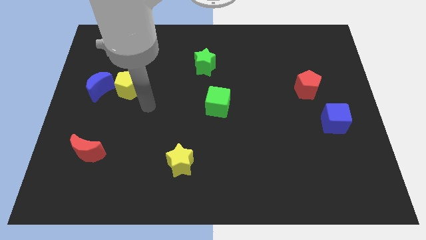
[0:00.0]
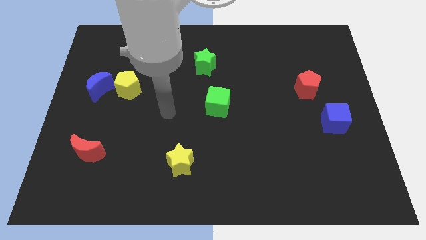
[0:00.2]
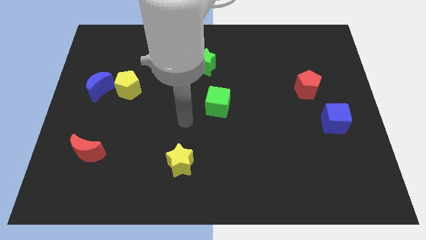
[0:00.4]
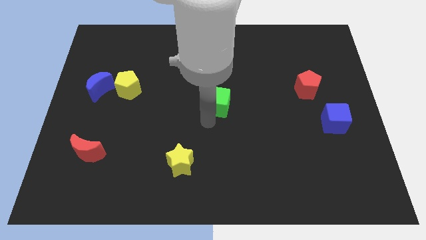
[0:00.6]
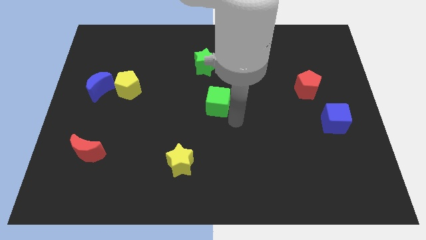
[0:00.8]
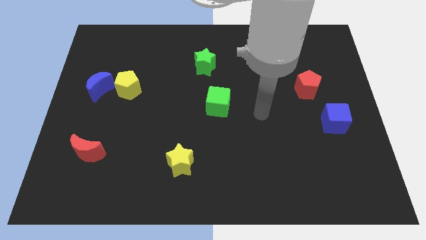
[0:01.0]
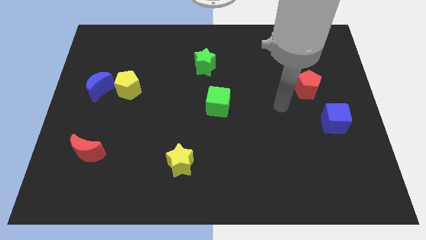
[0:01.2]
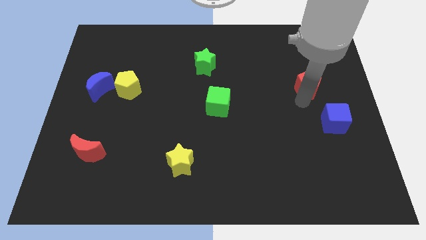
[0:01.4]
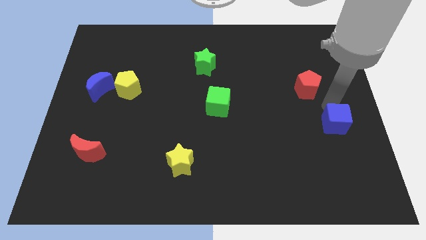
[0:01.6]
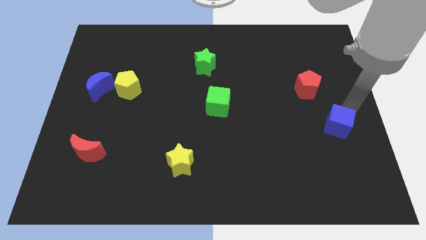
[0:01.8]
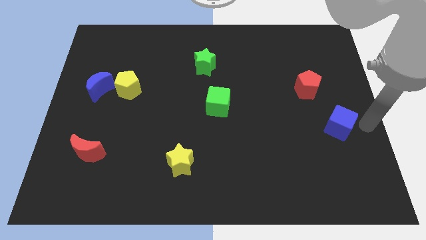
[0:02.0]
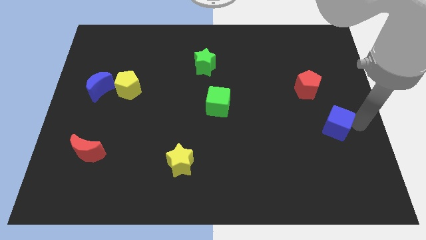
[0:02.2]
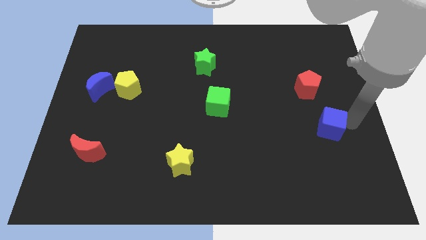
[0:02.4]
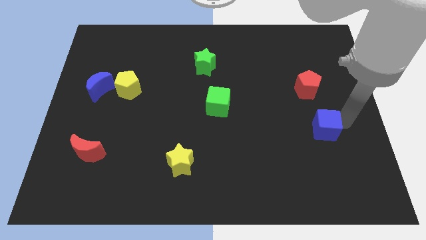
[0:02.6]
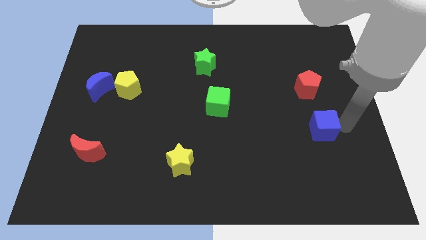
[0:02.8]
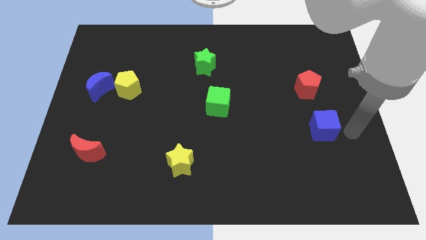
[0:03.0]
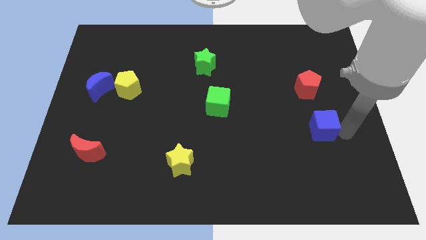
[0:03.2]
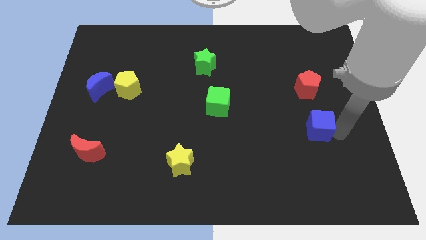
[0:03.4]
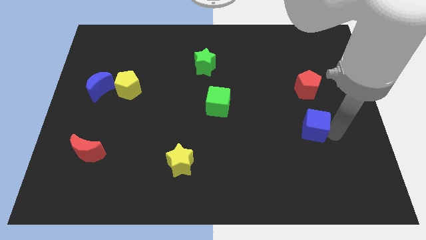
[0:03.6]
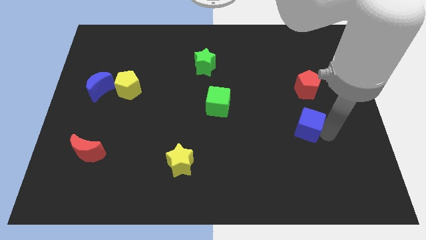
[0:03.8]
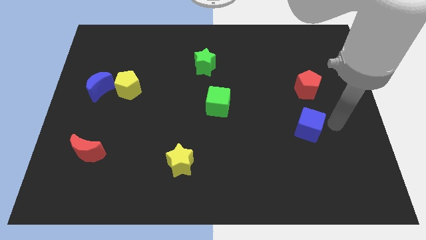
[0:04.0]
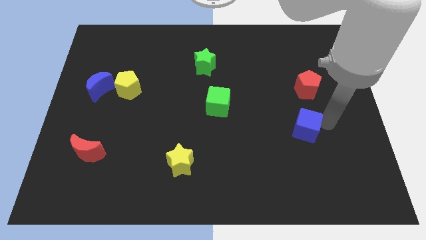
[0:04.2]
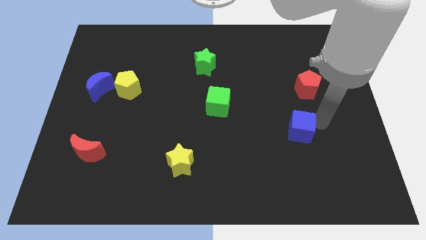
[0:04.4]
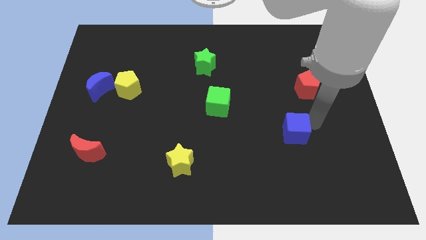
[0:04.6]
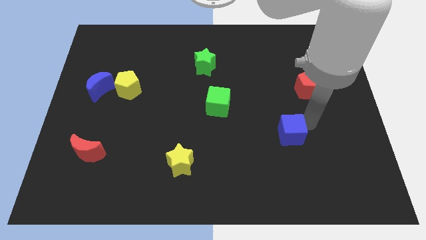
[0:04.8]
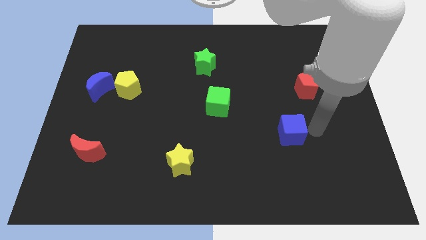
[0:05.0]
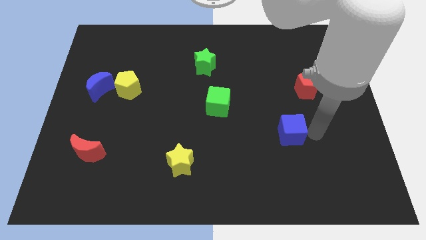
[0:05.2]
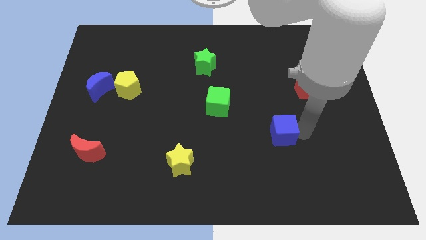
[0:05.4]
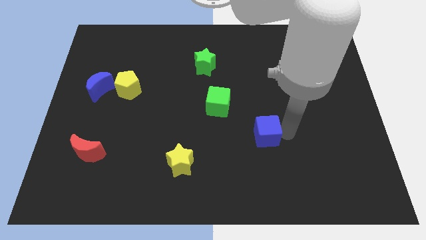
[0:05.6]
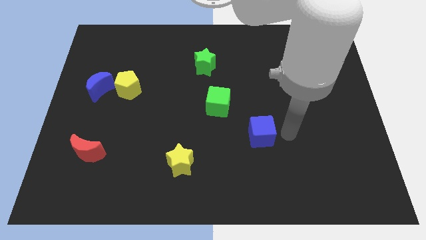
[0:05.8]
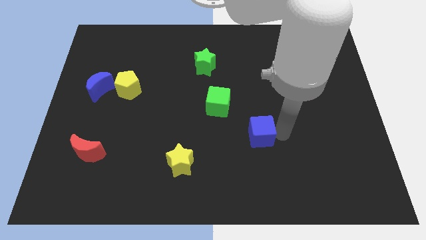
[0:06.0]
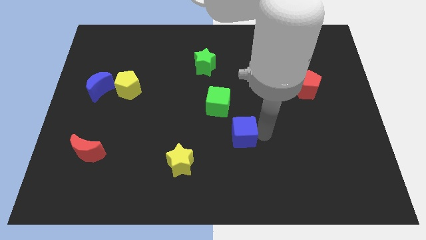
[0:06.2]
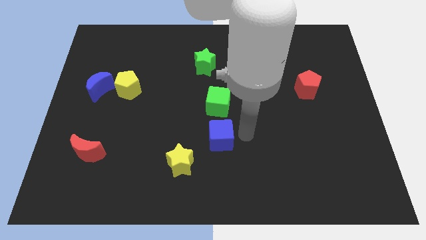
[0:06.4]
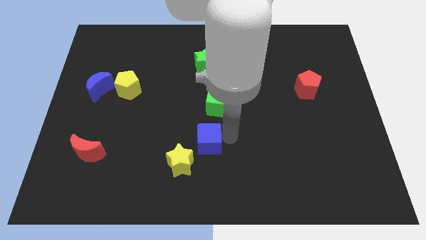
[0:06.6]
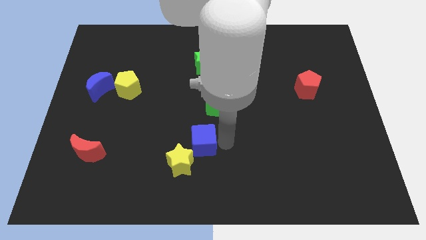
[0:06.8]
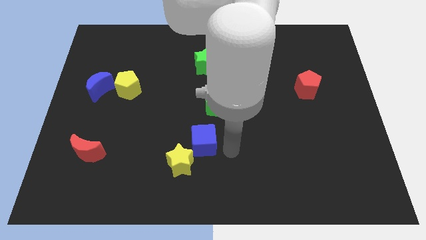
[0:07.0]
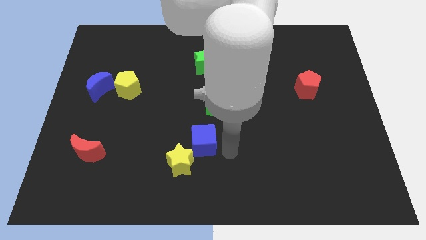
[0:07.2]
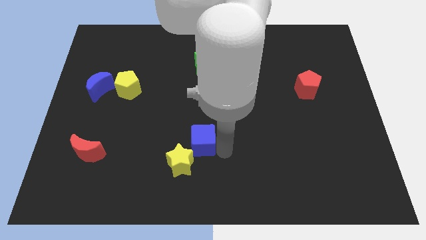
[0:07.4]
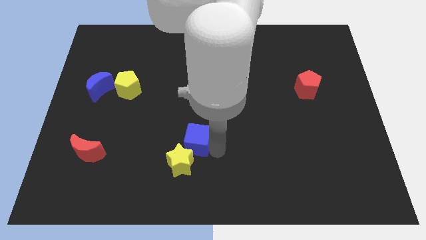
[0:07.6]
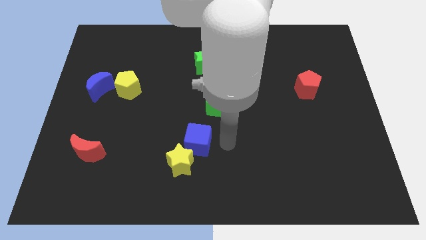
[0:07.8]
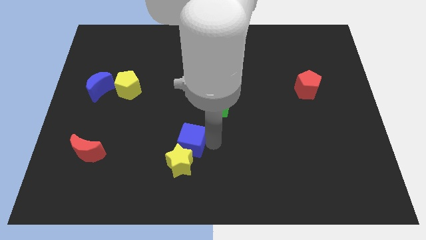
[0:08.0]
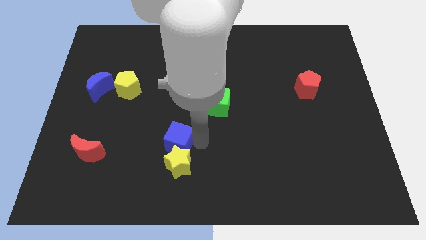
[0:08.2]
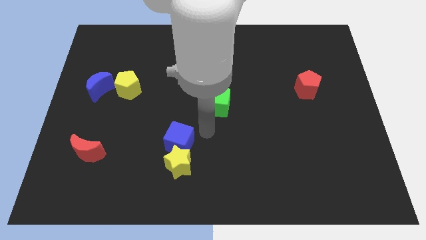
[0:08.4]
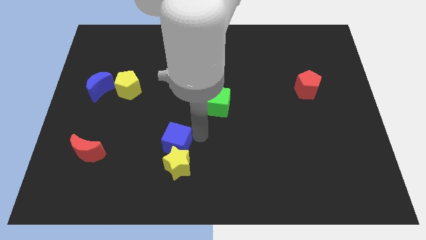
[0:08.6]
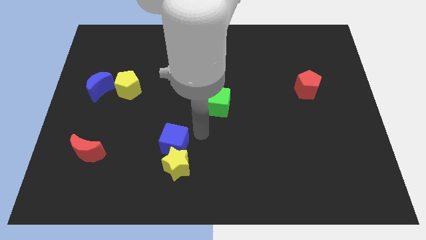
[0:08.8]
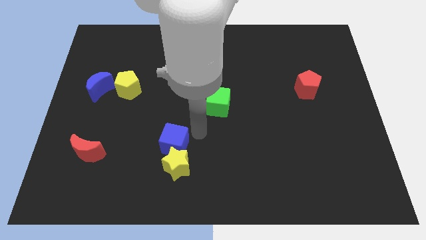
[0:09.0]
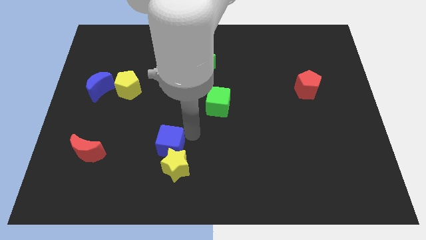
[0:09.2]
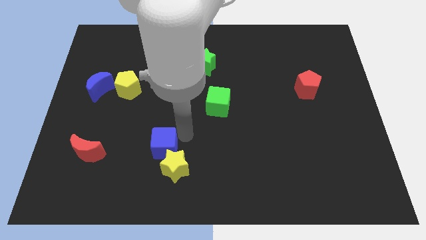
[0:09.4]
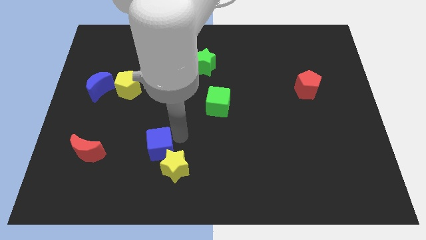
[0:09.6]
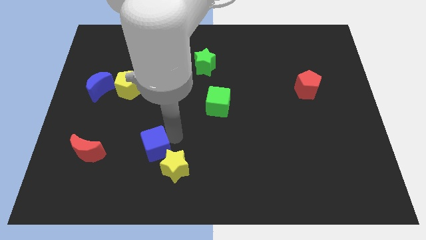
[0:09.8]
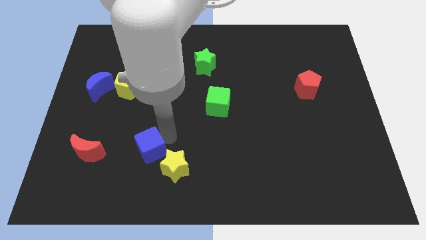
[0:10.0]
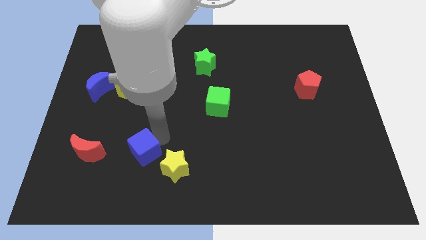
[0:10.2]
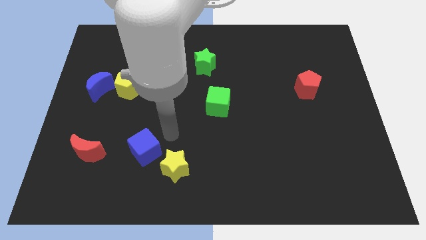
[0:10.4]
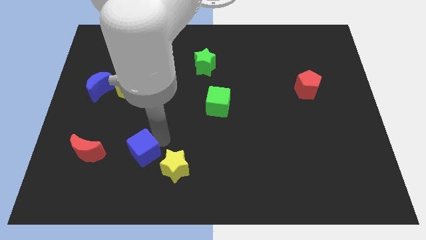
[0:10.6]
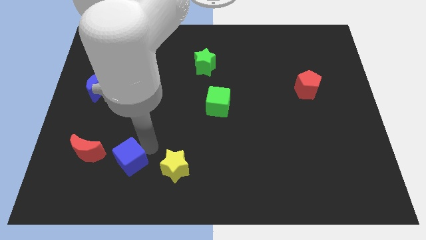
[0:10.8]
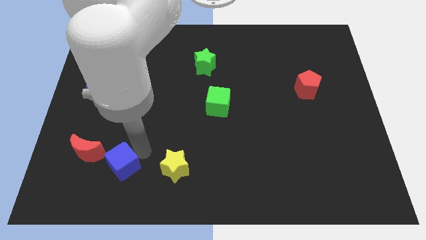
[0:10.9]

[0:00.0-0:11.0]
push the blue cube to the bottom right side of the red moon

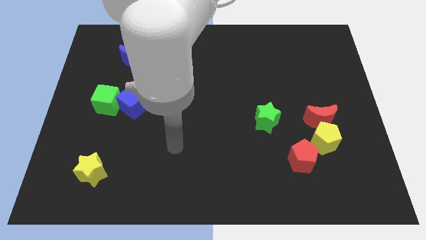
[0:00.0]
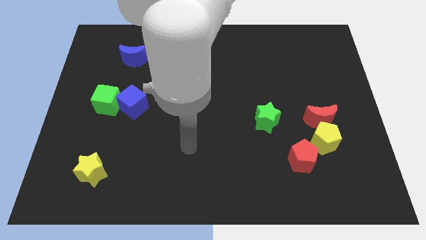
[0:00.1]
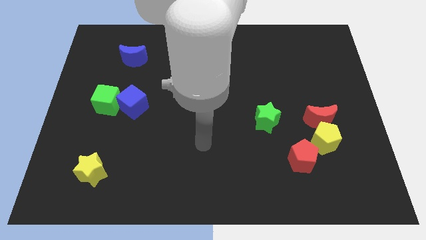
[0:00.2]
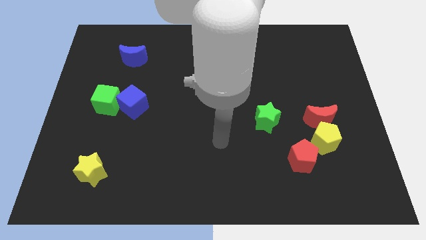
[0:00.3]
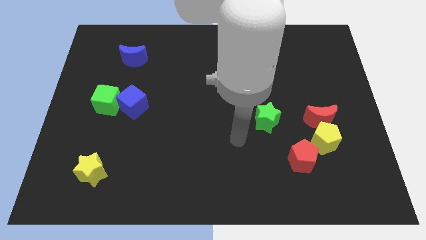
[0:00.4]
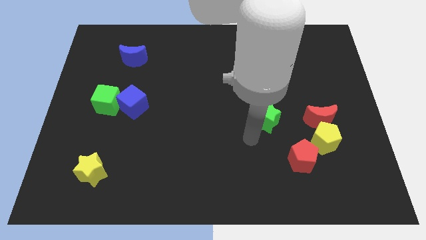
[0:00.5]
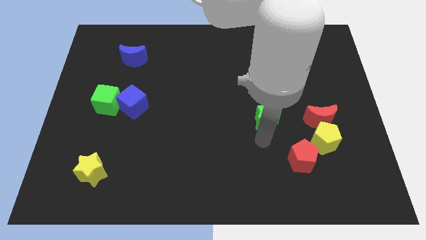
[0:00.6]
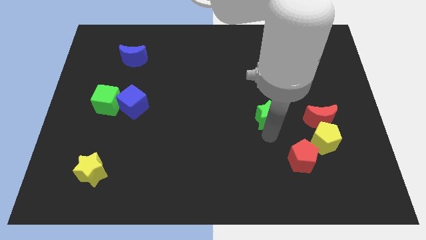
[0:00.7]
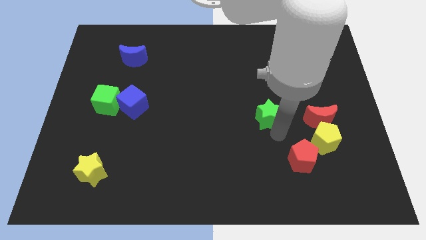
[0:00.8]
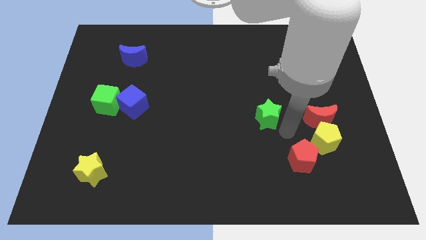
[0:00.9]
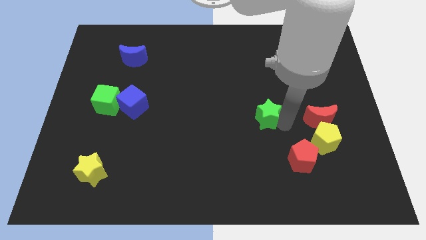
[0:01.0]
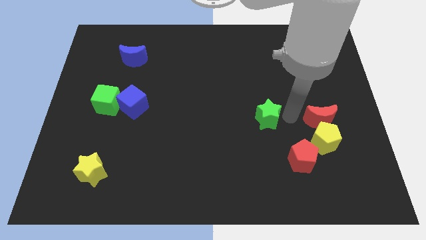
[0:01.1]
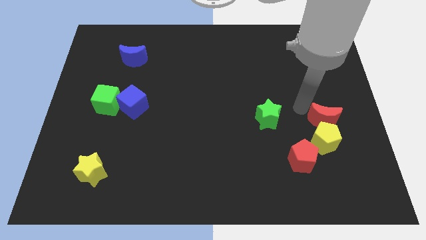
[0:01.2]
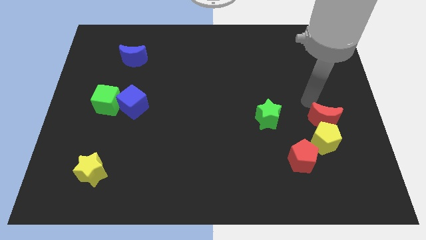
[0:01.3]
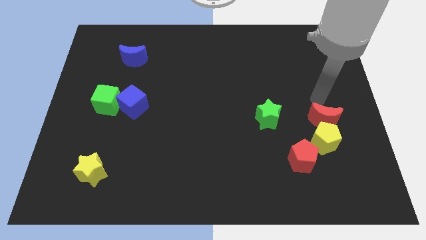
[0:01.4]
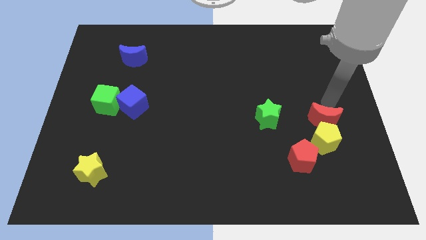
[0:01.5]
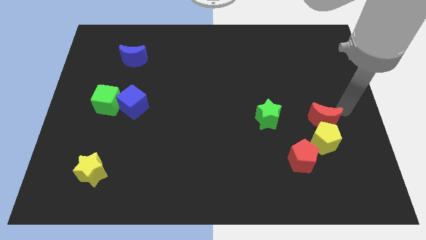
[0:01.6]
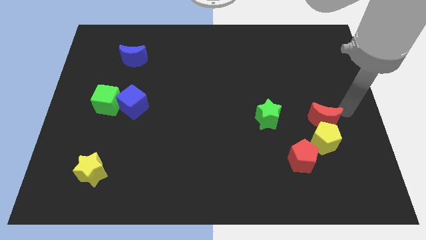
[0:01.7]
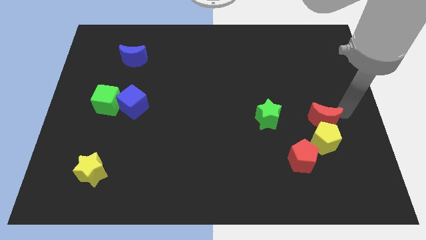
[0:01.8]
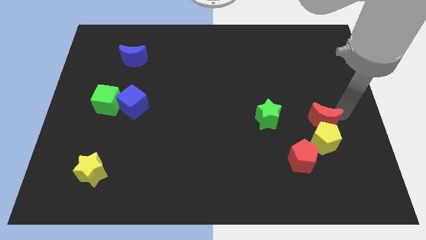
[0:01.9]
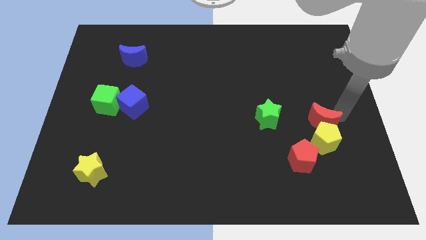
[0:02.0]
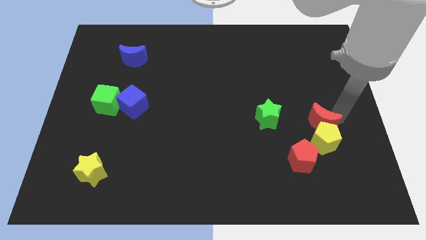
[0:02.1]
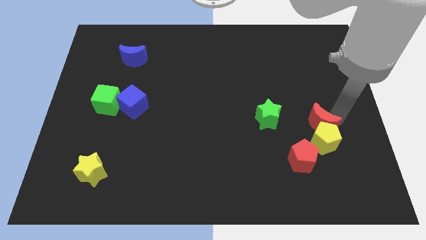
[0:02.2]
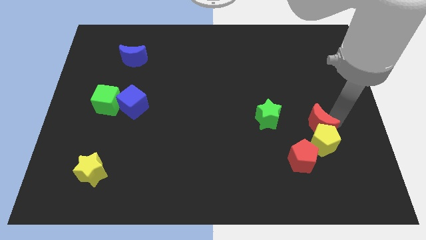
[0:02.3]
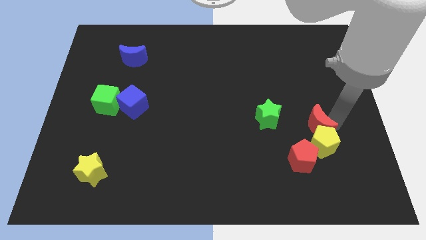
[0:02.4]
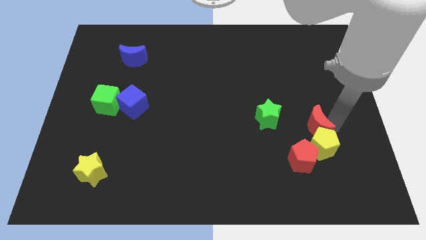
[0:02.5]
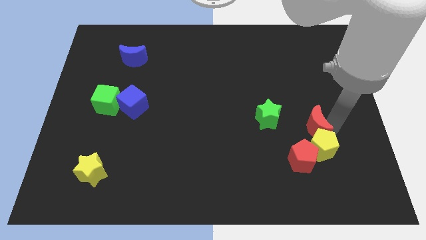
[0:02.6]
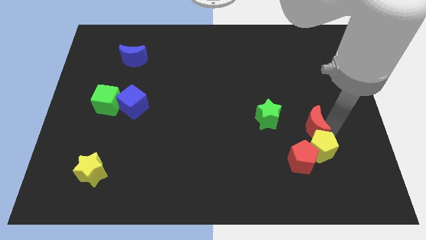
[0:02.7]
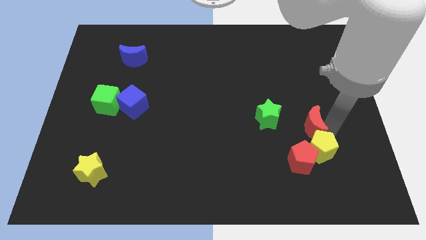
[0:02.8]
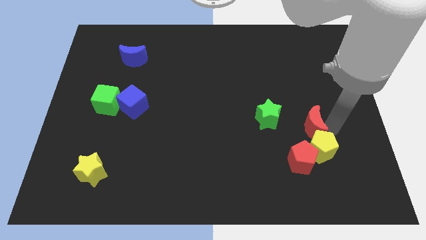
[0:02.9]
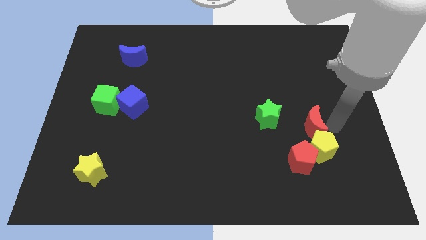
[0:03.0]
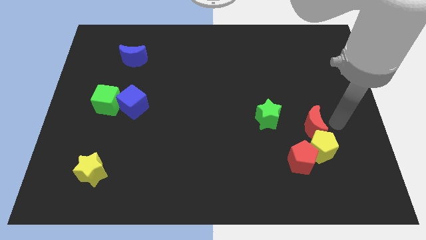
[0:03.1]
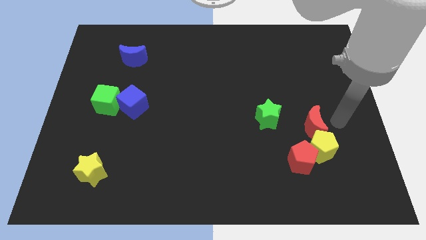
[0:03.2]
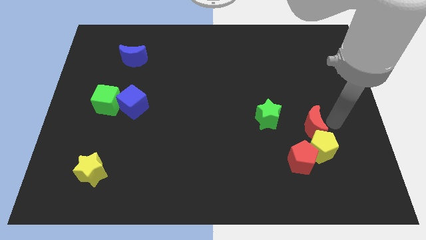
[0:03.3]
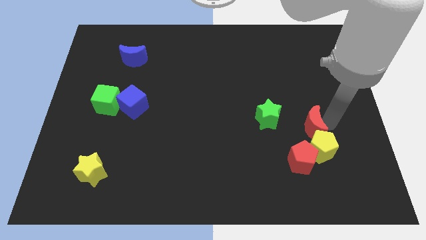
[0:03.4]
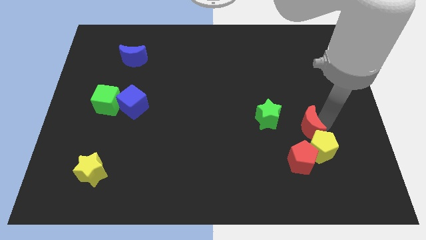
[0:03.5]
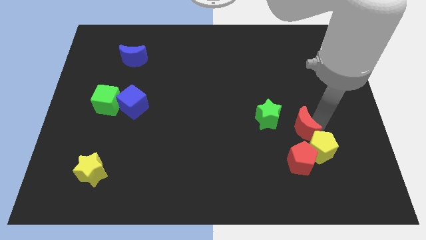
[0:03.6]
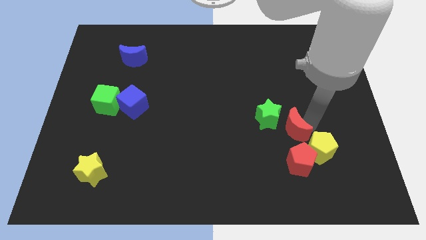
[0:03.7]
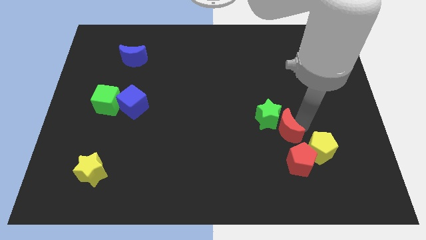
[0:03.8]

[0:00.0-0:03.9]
slide the red moon to the top left of the red pentagon
